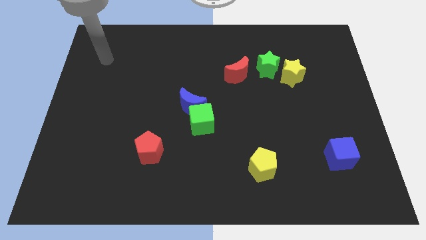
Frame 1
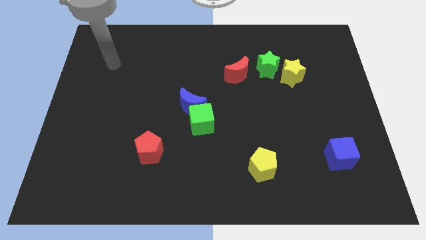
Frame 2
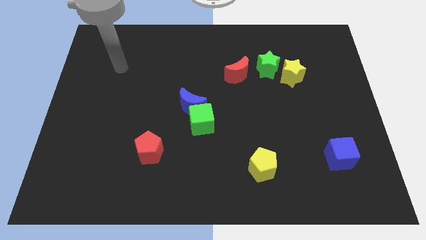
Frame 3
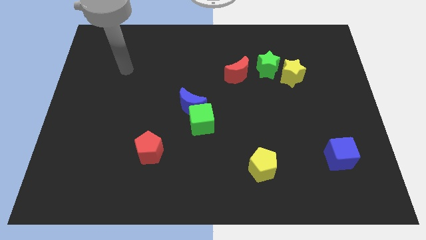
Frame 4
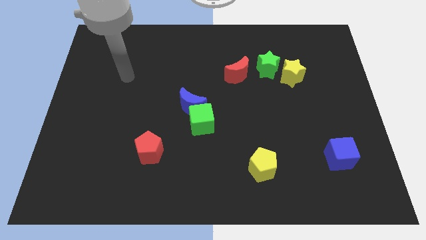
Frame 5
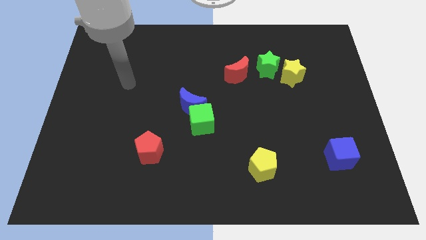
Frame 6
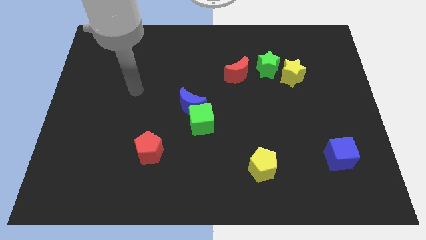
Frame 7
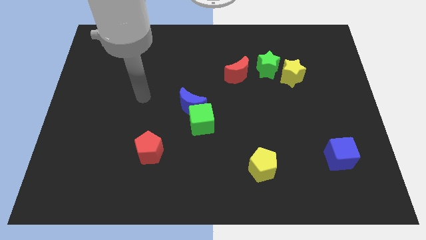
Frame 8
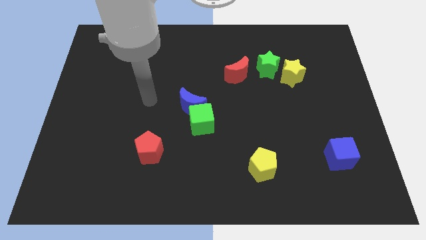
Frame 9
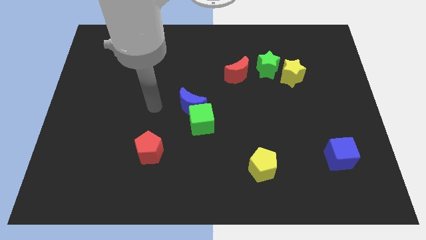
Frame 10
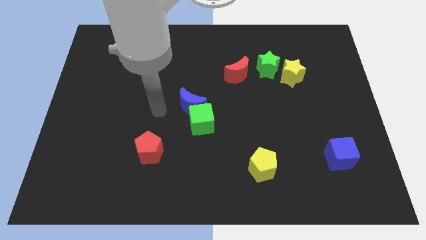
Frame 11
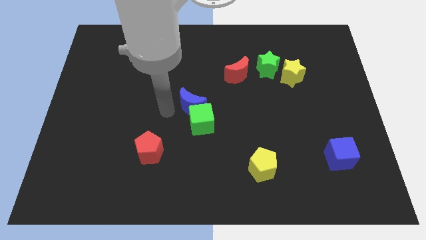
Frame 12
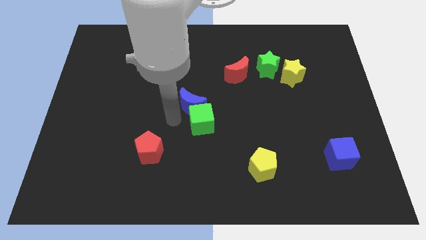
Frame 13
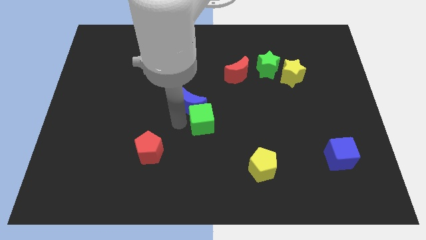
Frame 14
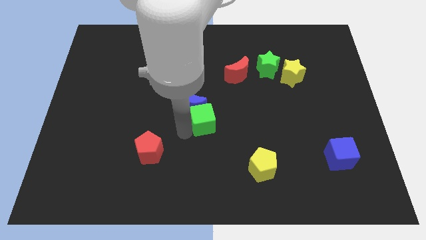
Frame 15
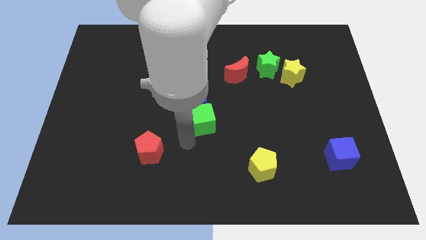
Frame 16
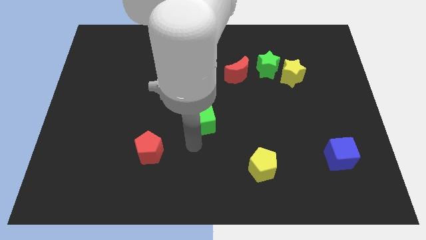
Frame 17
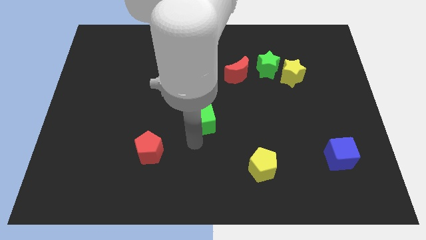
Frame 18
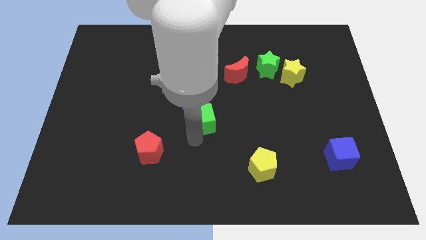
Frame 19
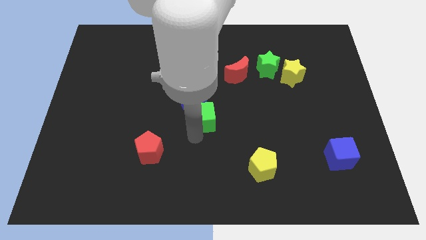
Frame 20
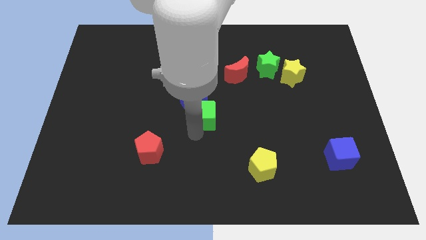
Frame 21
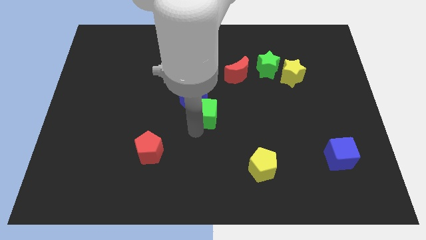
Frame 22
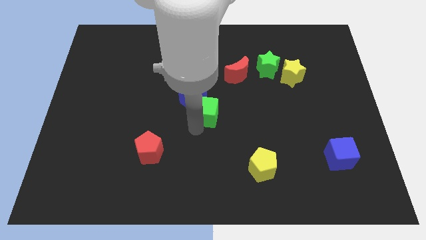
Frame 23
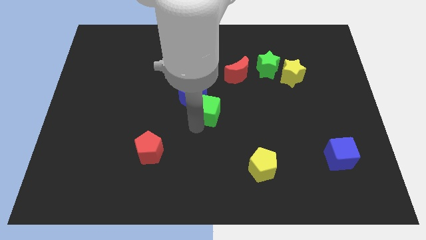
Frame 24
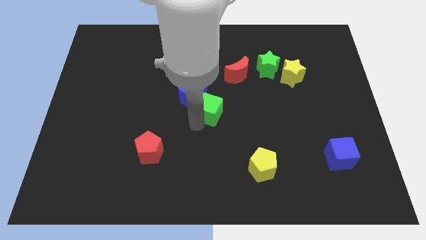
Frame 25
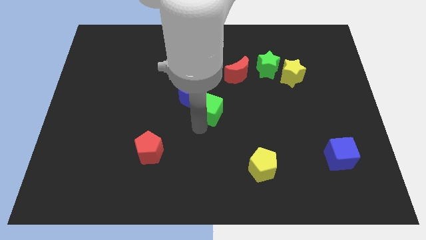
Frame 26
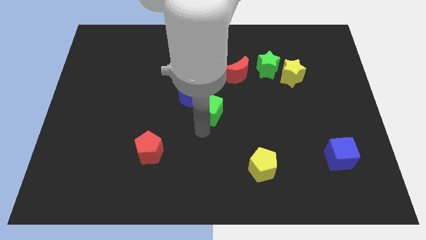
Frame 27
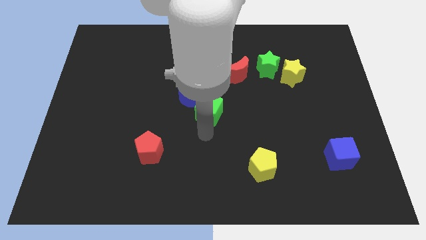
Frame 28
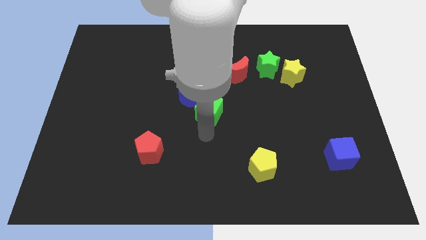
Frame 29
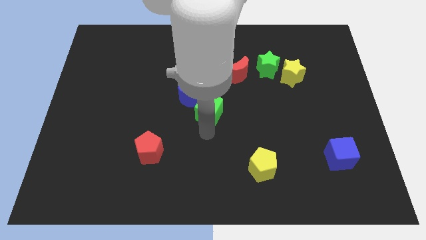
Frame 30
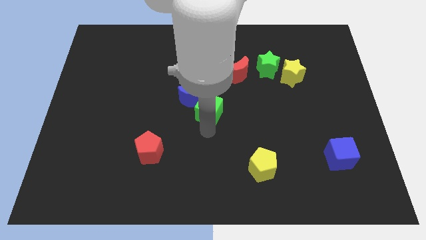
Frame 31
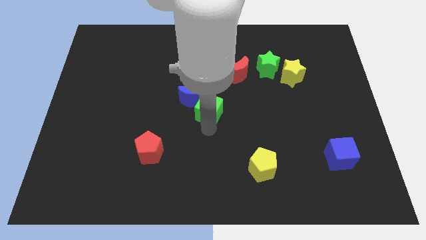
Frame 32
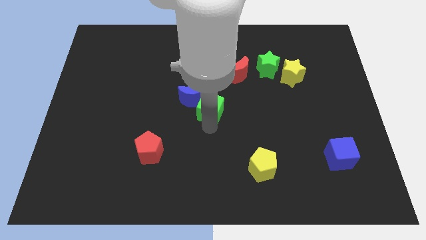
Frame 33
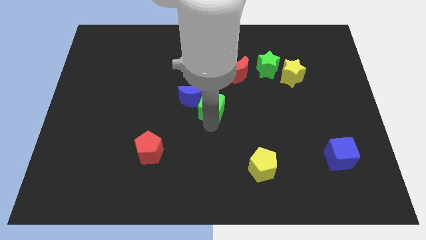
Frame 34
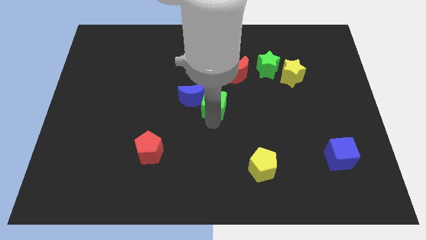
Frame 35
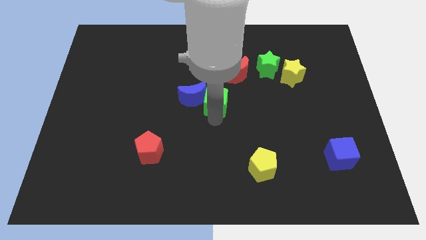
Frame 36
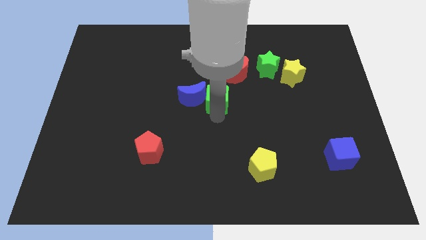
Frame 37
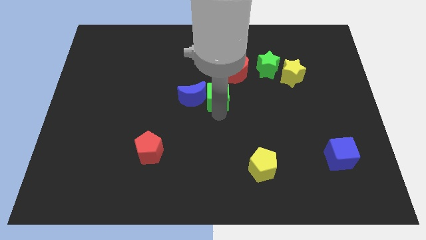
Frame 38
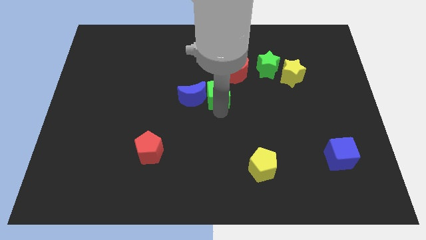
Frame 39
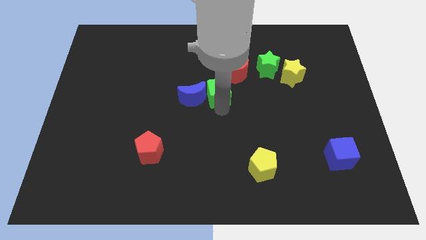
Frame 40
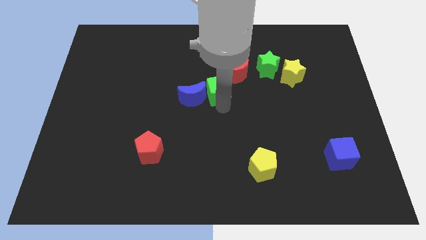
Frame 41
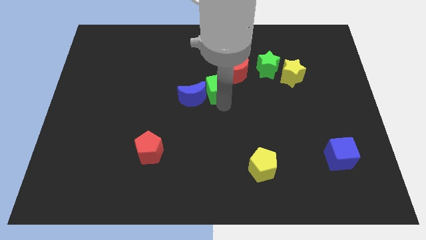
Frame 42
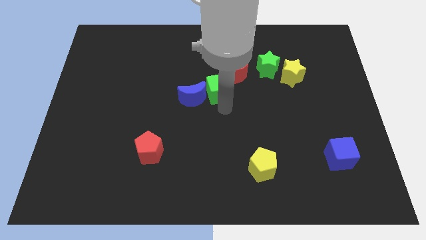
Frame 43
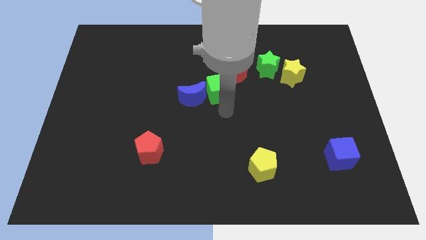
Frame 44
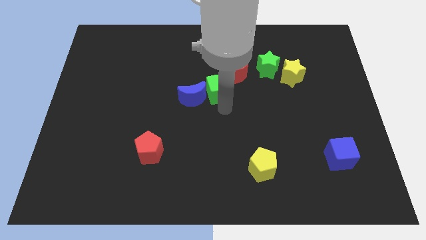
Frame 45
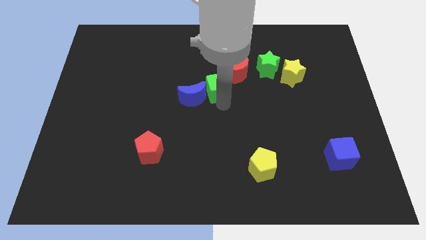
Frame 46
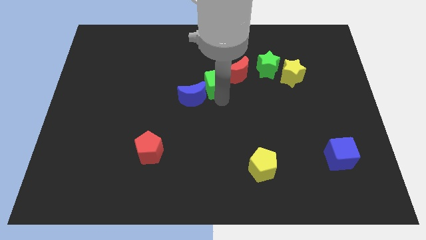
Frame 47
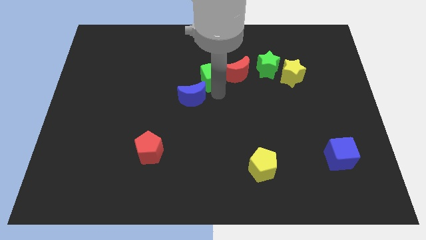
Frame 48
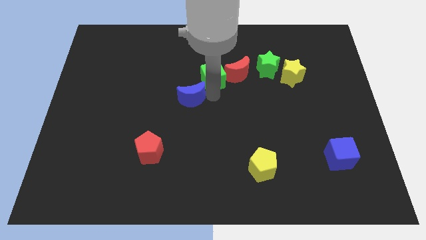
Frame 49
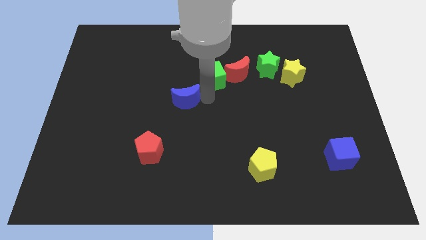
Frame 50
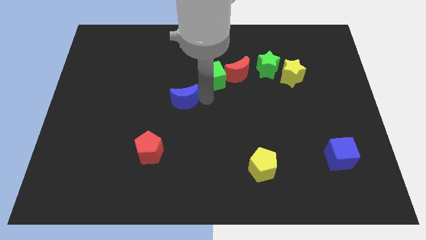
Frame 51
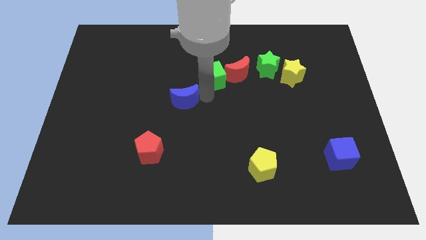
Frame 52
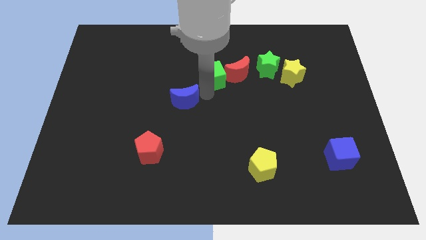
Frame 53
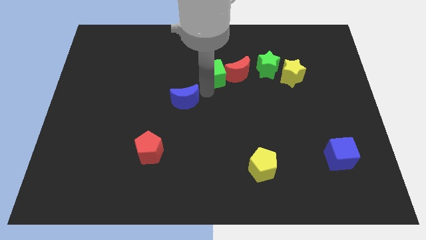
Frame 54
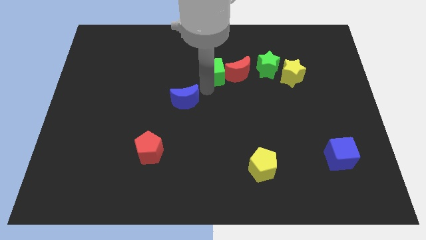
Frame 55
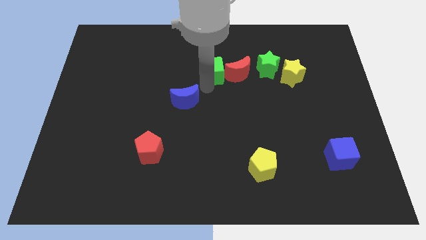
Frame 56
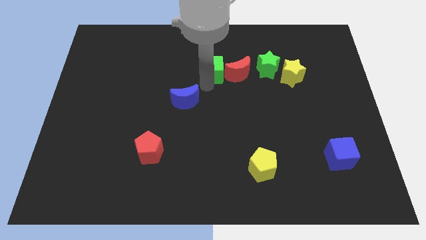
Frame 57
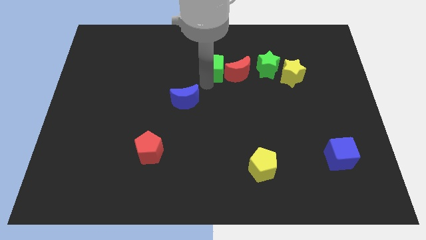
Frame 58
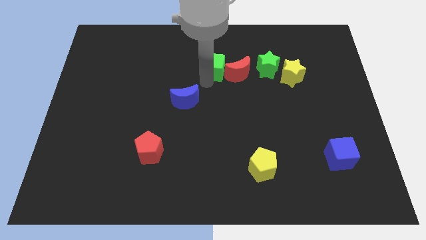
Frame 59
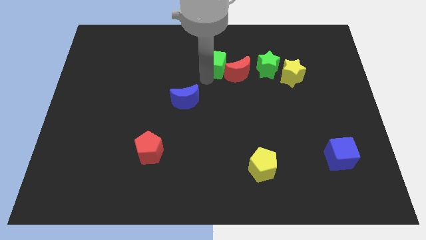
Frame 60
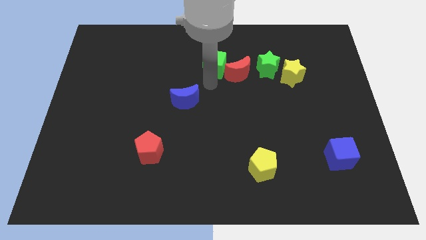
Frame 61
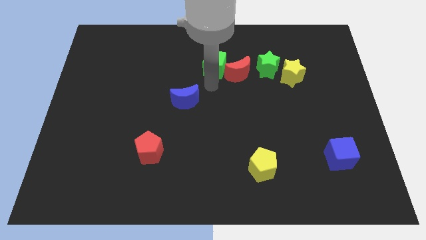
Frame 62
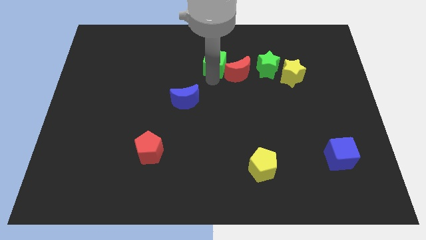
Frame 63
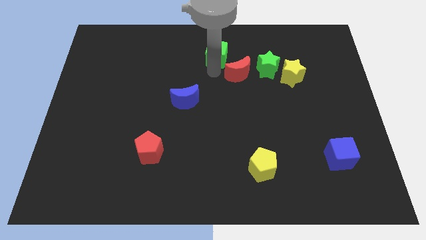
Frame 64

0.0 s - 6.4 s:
slide the green cube to the top
